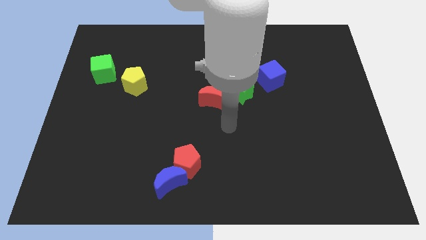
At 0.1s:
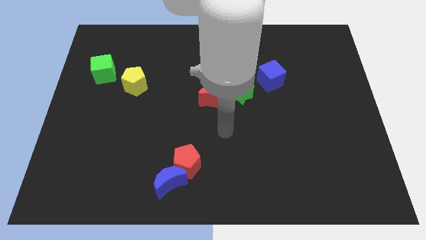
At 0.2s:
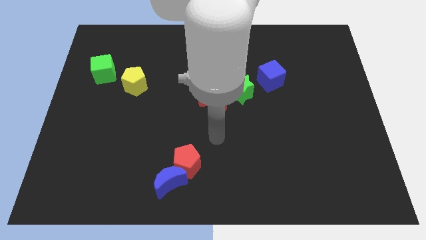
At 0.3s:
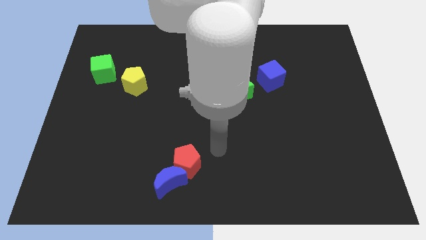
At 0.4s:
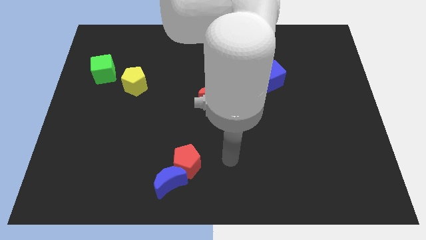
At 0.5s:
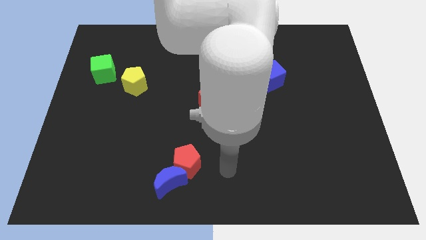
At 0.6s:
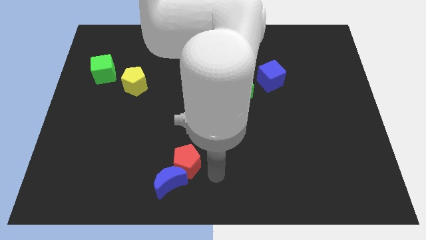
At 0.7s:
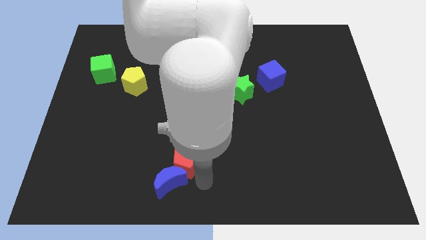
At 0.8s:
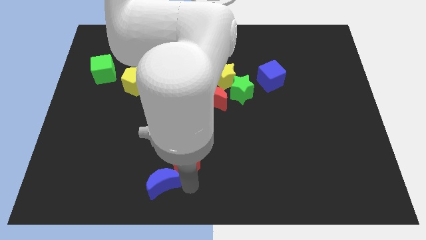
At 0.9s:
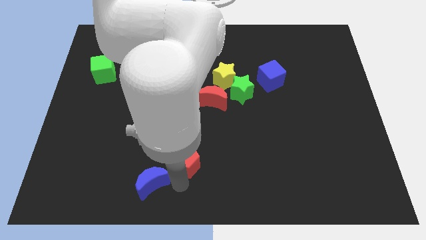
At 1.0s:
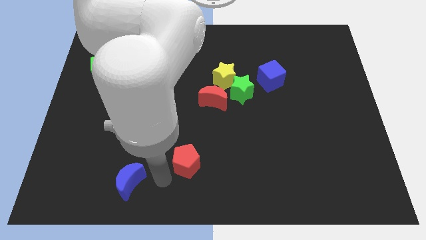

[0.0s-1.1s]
pull the red pentagon apart from the blue moon

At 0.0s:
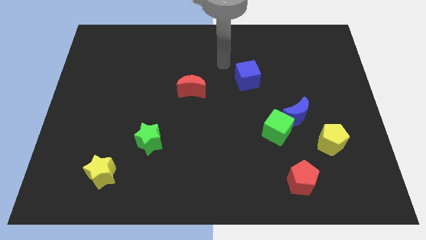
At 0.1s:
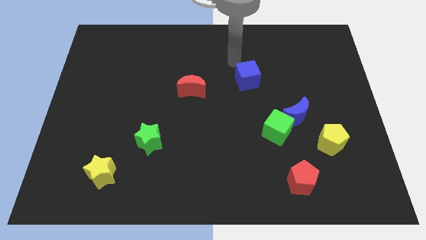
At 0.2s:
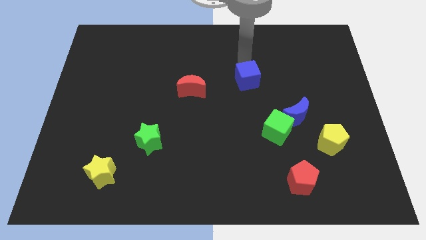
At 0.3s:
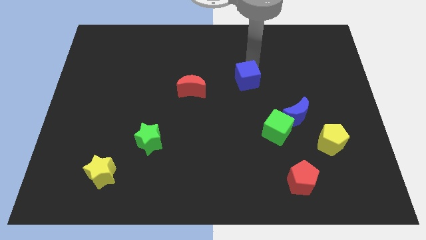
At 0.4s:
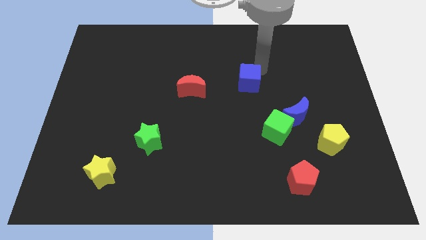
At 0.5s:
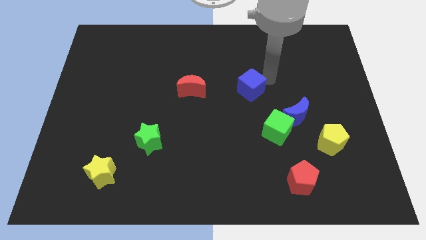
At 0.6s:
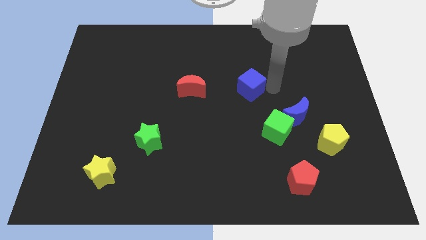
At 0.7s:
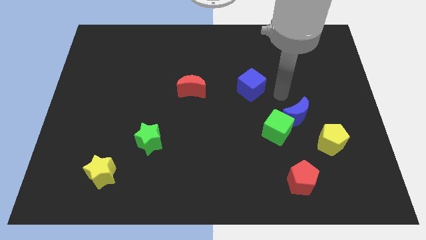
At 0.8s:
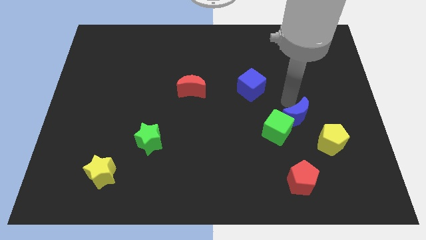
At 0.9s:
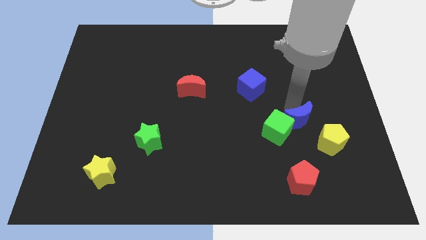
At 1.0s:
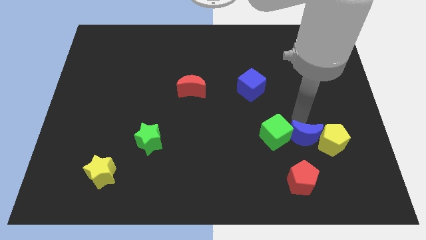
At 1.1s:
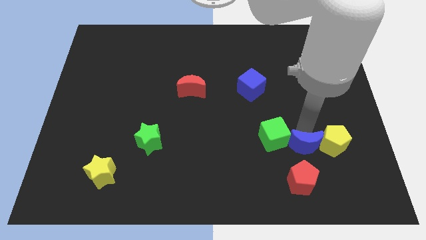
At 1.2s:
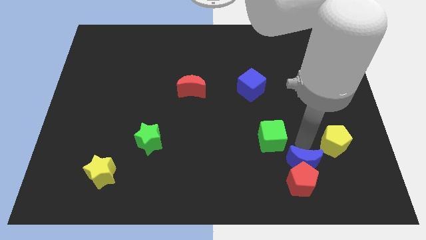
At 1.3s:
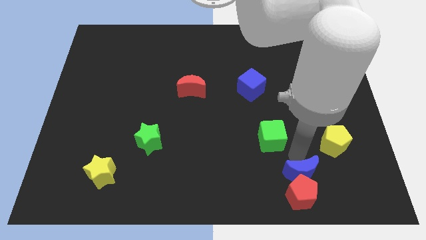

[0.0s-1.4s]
separate the green cube from the blue moon

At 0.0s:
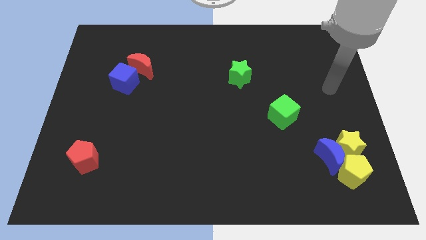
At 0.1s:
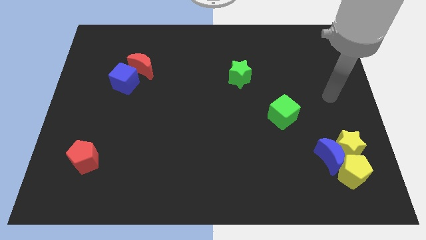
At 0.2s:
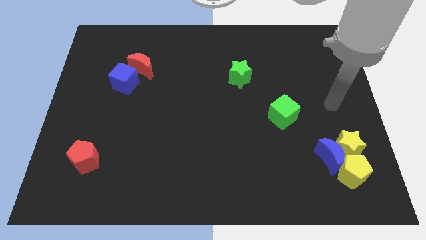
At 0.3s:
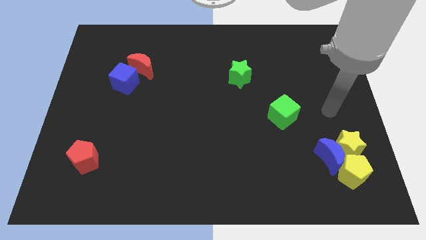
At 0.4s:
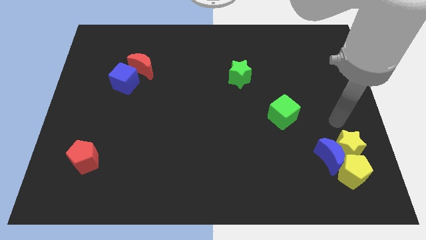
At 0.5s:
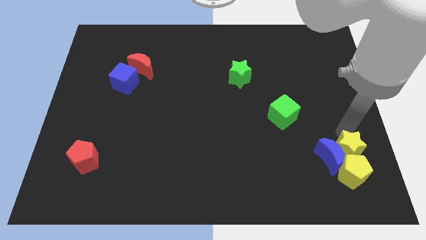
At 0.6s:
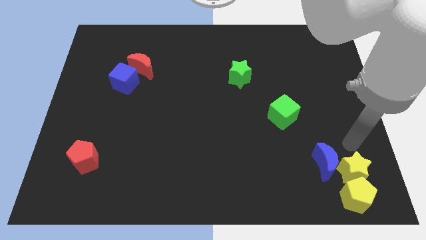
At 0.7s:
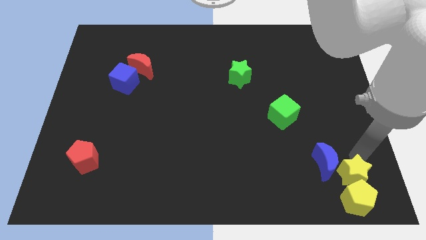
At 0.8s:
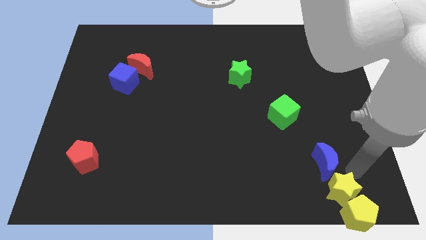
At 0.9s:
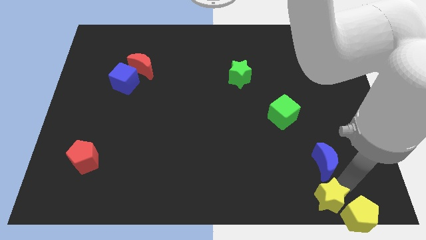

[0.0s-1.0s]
separate the blue moon from the yellow star and yellow pentagon

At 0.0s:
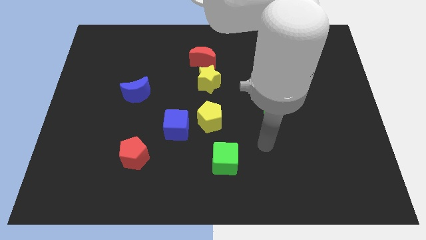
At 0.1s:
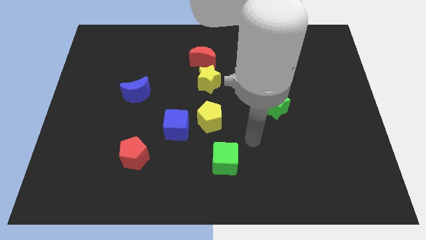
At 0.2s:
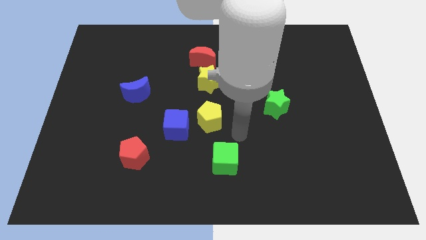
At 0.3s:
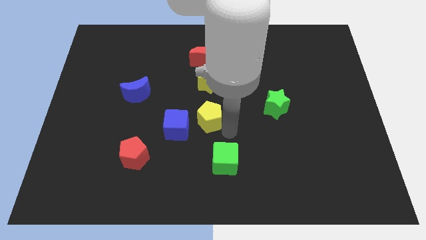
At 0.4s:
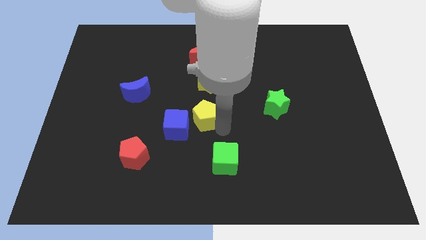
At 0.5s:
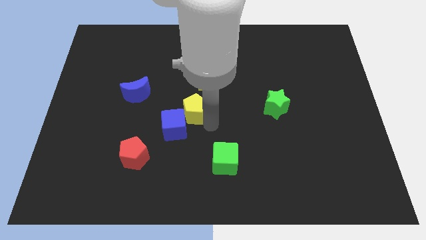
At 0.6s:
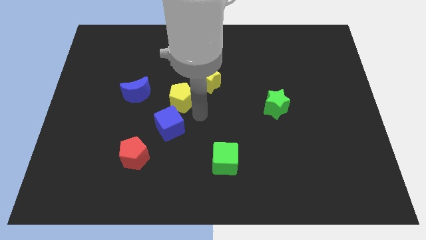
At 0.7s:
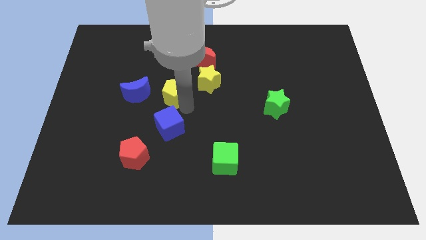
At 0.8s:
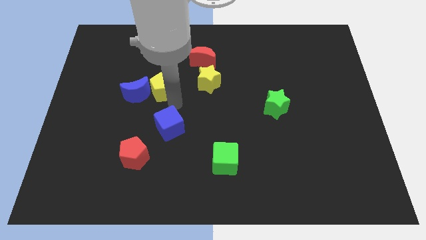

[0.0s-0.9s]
pull the blue cube apart from the yellow pentagon

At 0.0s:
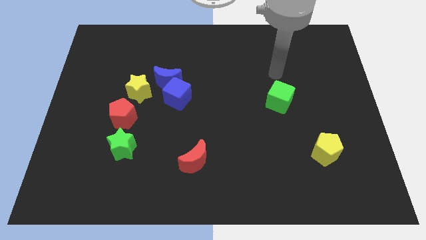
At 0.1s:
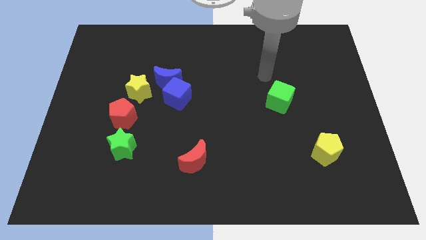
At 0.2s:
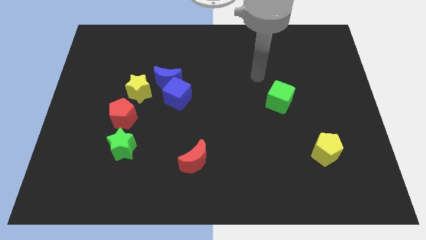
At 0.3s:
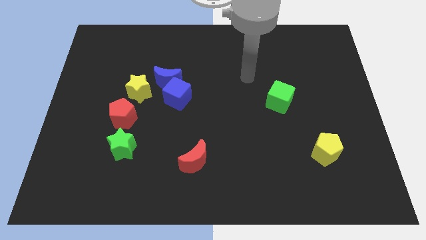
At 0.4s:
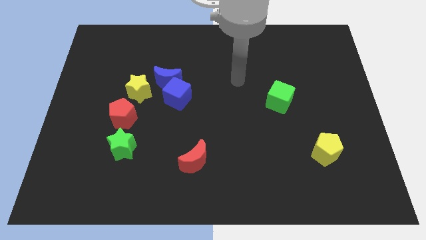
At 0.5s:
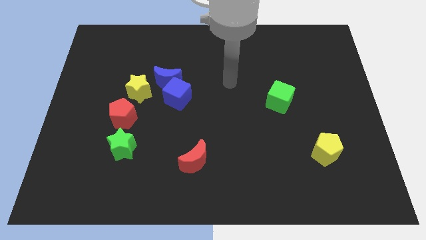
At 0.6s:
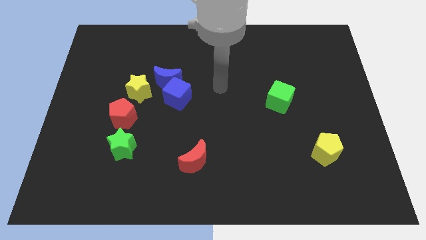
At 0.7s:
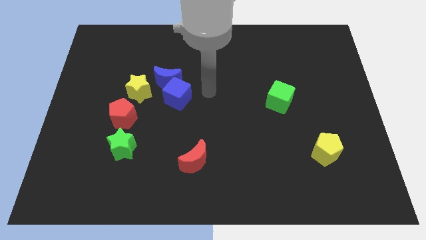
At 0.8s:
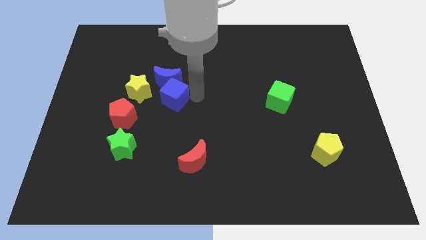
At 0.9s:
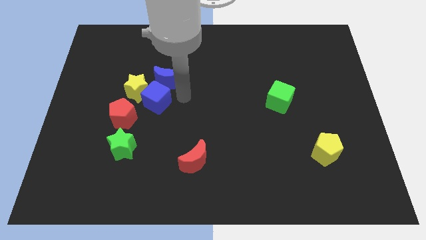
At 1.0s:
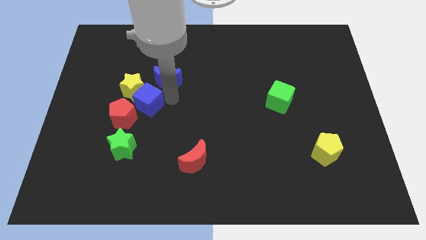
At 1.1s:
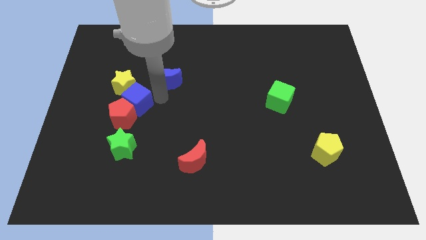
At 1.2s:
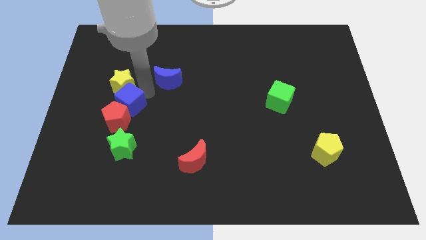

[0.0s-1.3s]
pull the blue moon apart from the blue cube and yellow star

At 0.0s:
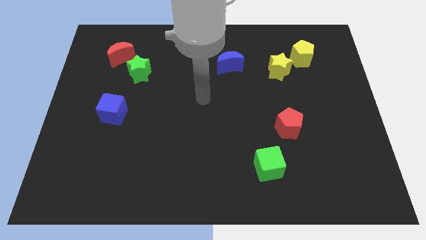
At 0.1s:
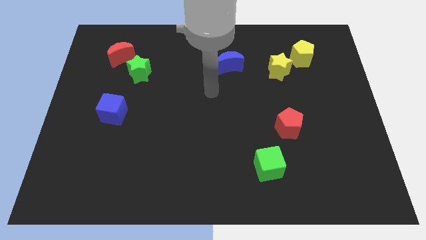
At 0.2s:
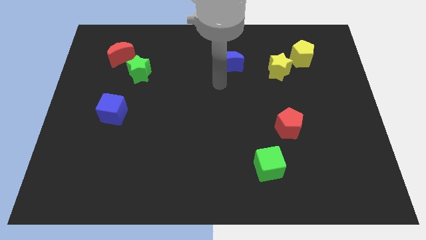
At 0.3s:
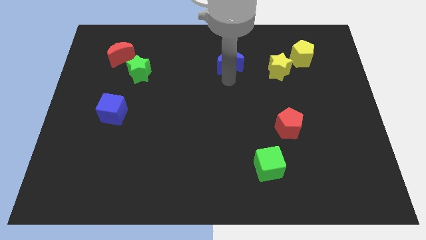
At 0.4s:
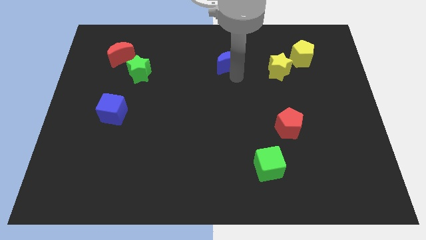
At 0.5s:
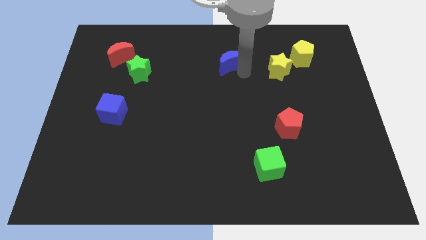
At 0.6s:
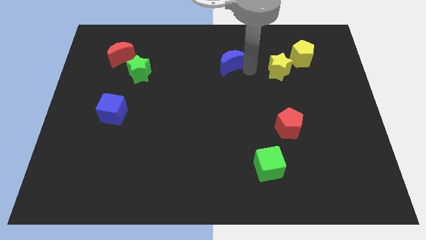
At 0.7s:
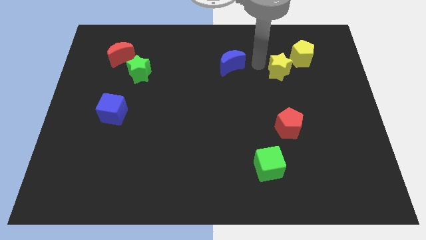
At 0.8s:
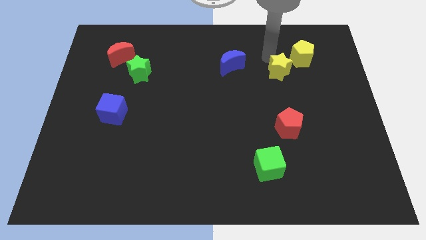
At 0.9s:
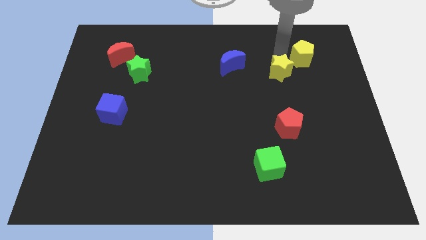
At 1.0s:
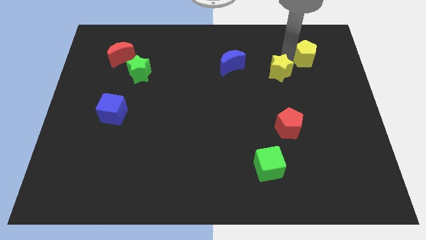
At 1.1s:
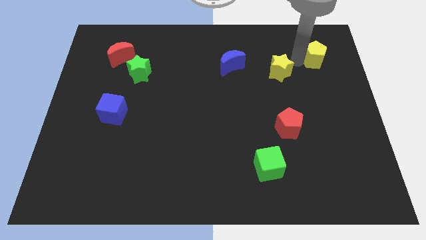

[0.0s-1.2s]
pull the yellow star apart from the yellow pentagon

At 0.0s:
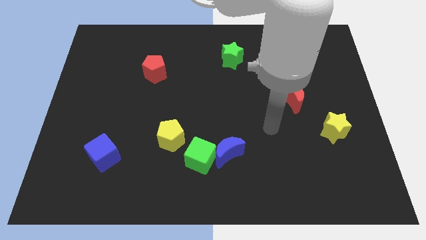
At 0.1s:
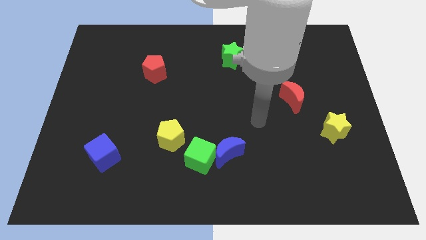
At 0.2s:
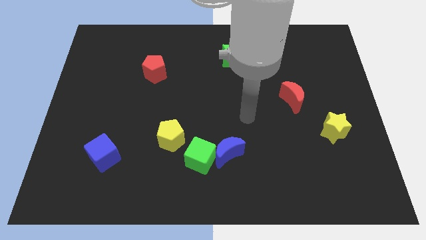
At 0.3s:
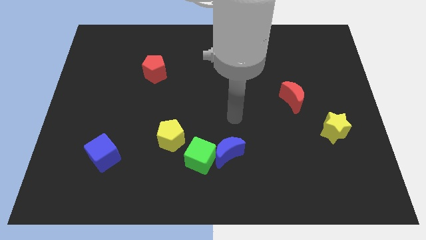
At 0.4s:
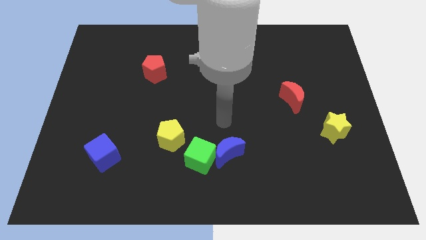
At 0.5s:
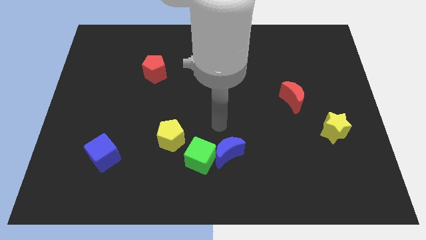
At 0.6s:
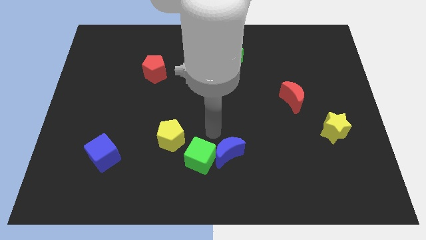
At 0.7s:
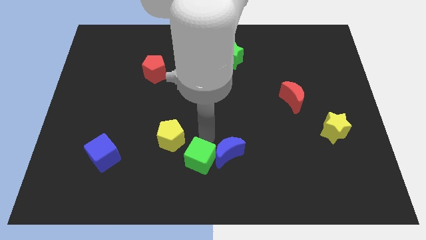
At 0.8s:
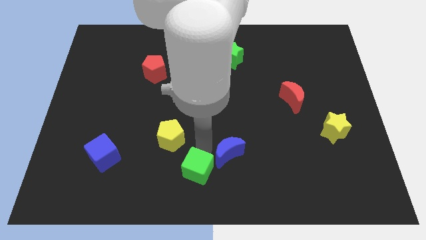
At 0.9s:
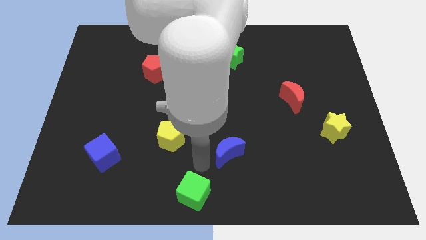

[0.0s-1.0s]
move the blue moon away from the green cube

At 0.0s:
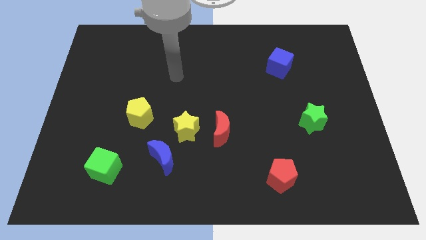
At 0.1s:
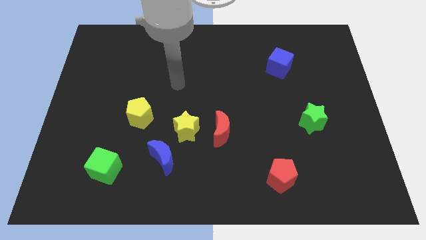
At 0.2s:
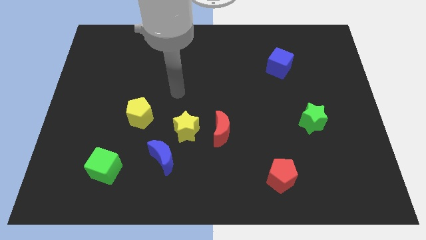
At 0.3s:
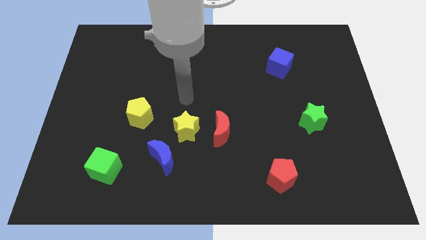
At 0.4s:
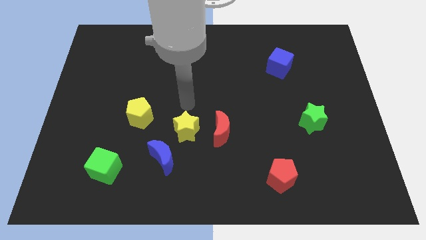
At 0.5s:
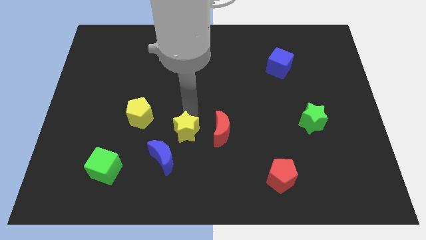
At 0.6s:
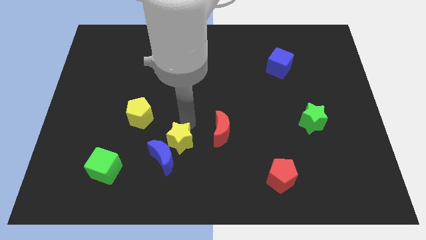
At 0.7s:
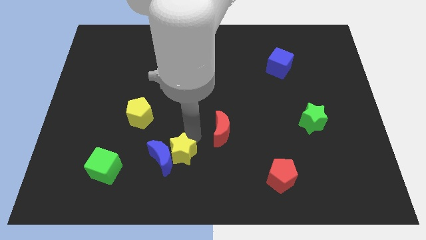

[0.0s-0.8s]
move the red moon away from the yellow star

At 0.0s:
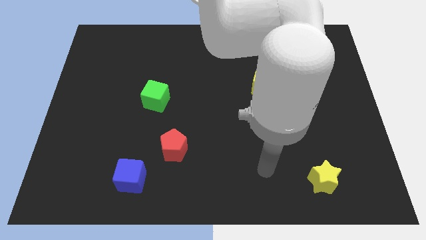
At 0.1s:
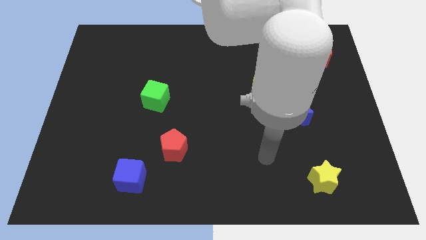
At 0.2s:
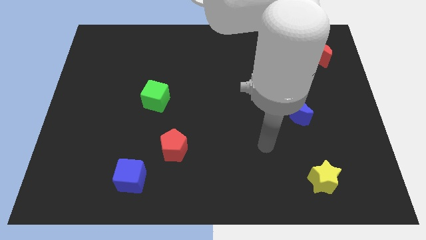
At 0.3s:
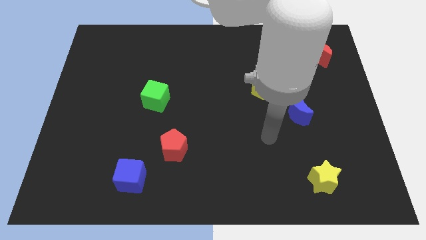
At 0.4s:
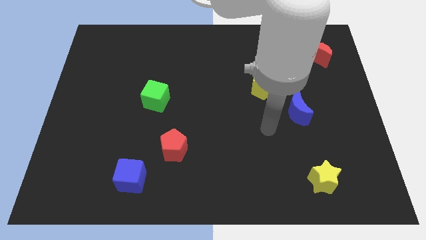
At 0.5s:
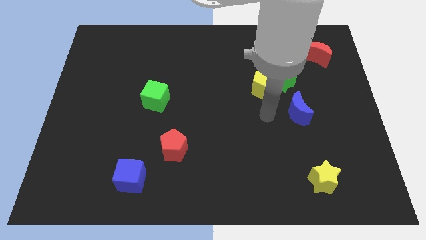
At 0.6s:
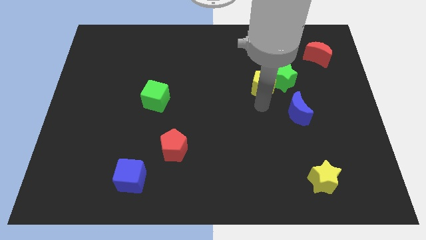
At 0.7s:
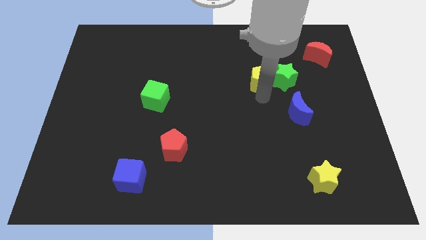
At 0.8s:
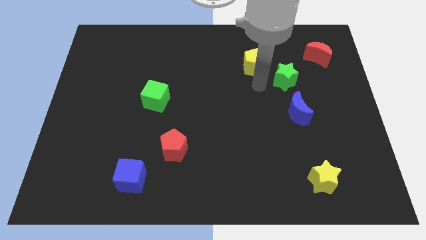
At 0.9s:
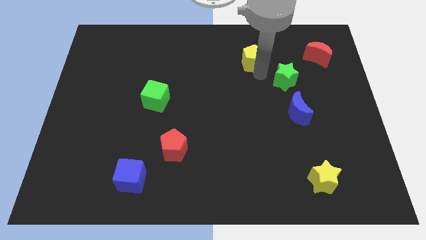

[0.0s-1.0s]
separate the green star from the yellow pentagon
